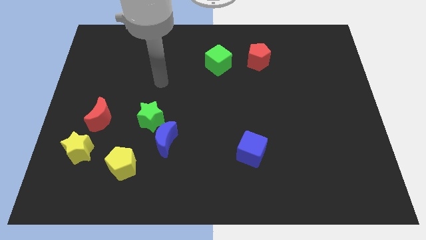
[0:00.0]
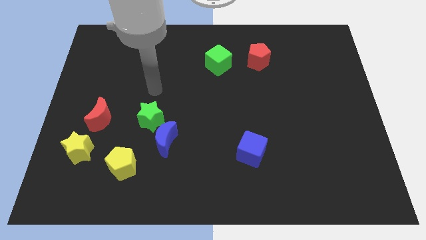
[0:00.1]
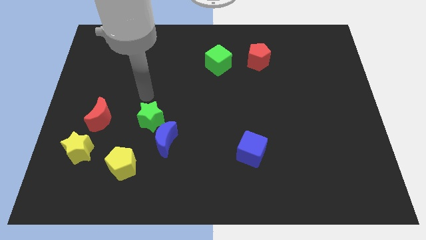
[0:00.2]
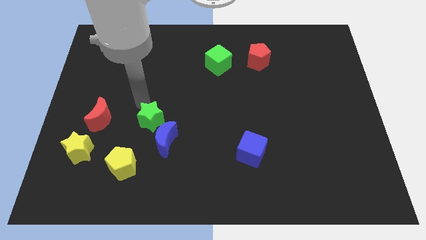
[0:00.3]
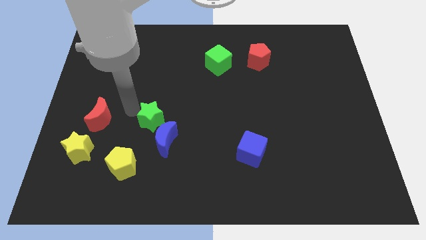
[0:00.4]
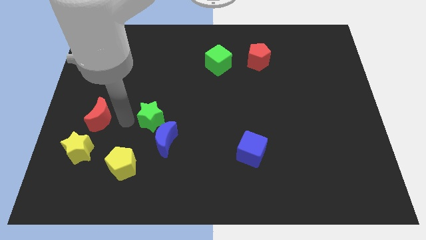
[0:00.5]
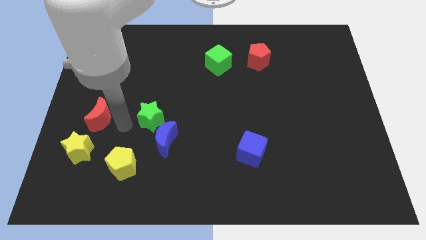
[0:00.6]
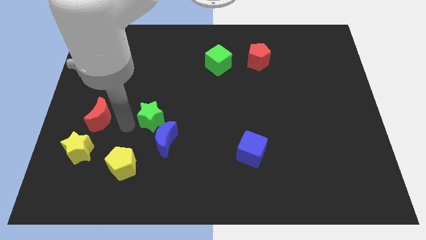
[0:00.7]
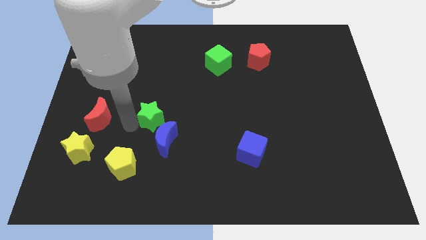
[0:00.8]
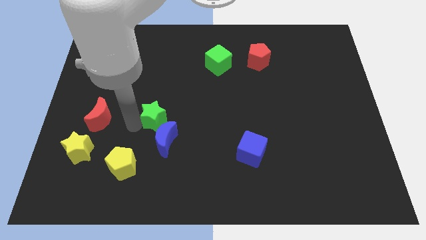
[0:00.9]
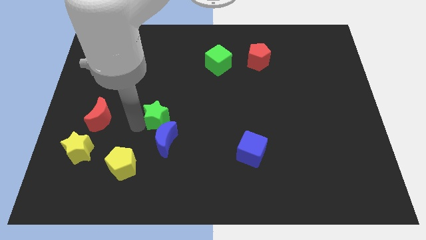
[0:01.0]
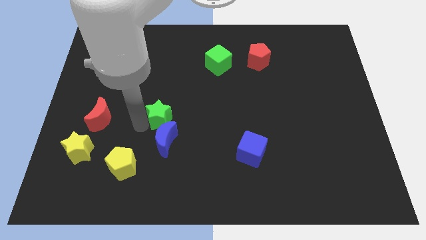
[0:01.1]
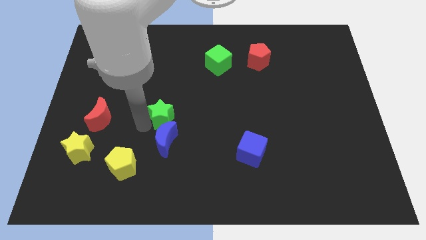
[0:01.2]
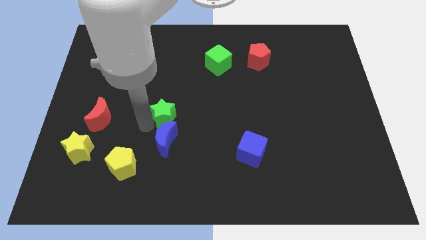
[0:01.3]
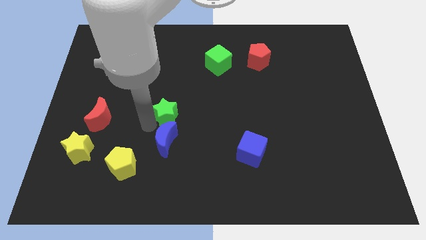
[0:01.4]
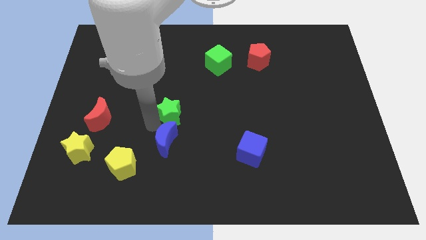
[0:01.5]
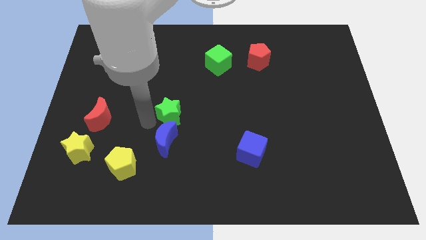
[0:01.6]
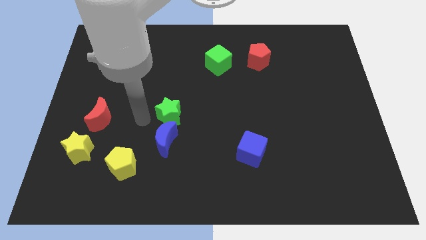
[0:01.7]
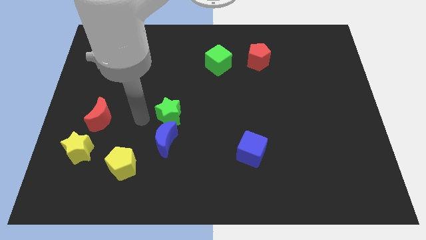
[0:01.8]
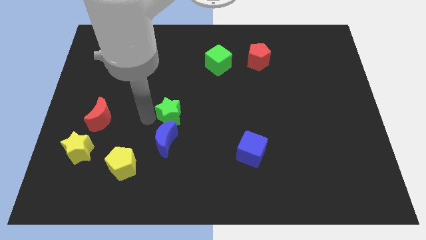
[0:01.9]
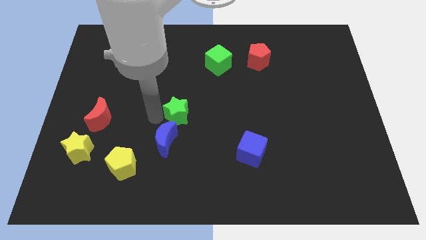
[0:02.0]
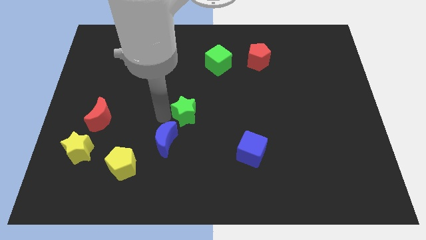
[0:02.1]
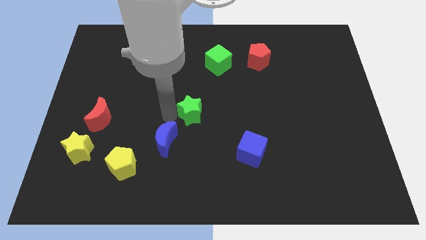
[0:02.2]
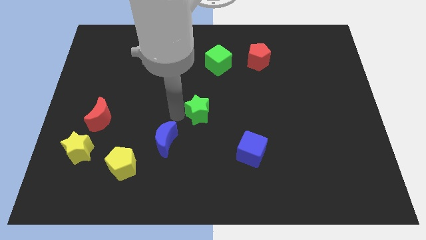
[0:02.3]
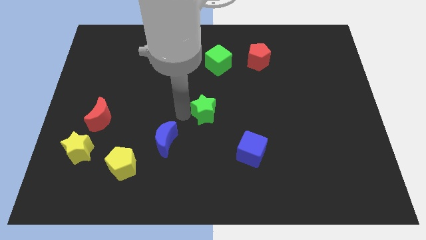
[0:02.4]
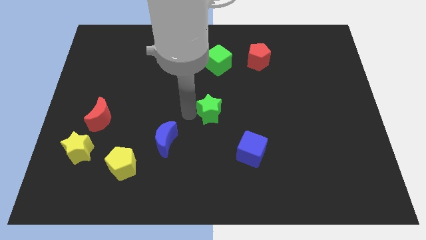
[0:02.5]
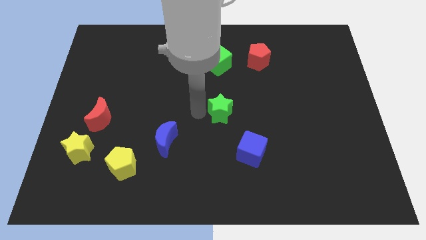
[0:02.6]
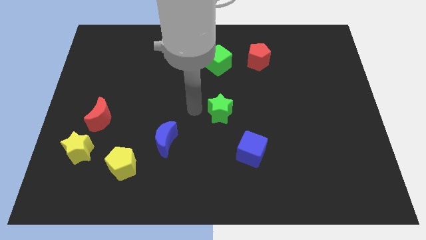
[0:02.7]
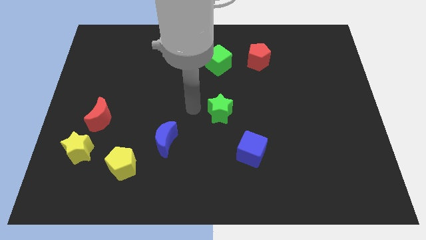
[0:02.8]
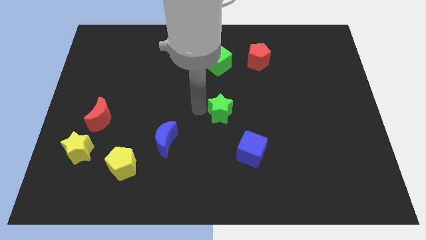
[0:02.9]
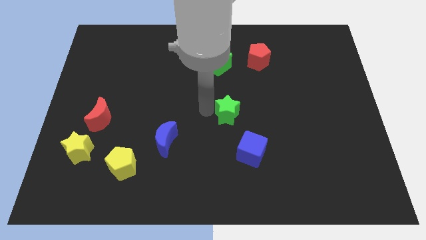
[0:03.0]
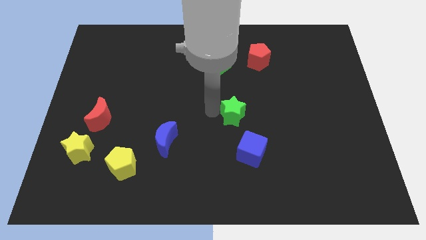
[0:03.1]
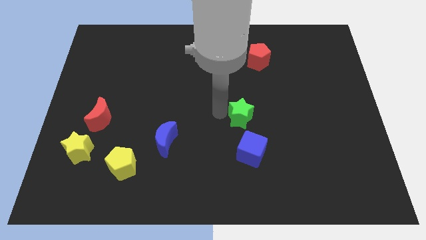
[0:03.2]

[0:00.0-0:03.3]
push the green star to the right

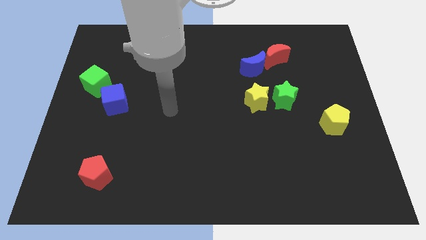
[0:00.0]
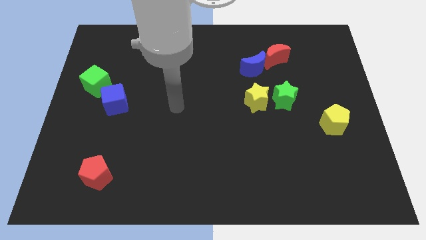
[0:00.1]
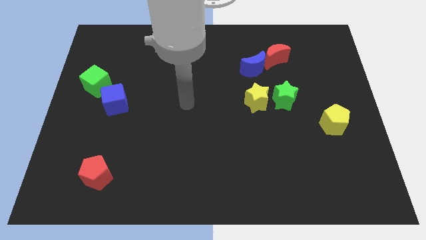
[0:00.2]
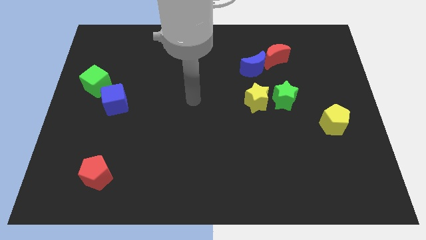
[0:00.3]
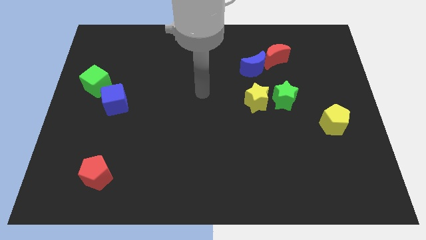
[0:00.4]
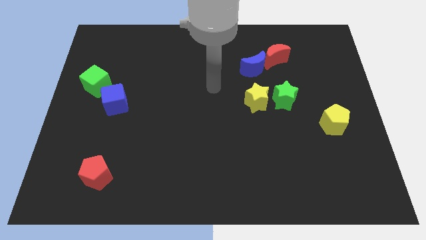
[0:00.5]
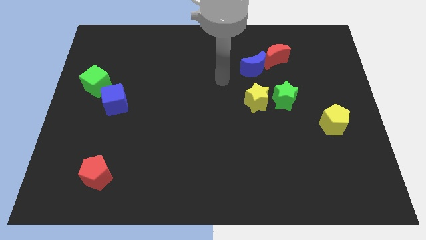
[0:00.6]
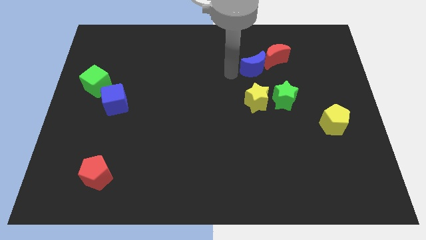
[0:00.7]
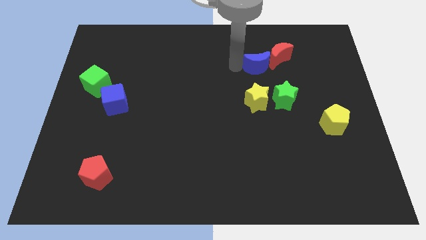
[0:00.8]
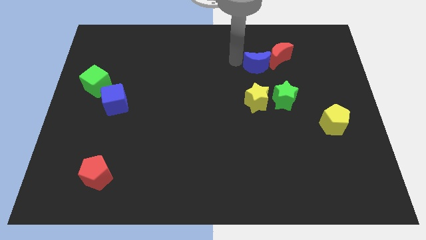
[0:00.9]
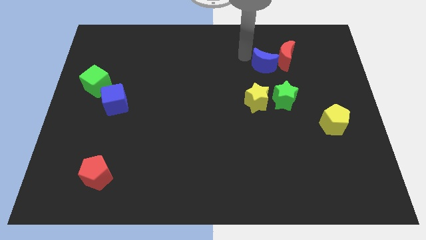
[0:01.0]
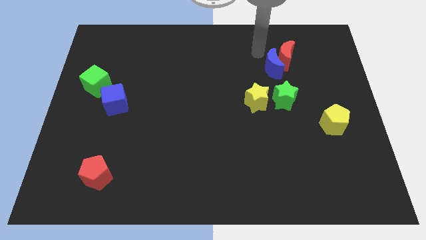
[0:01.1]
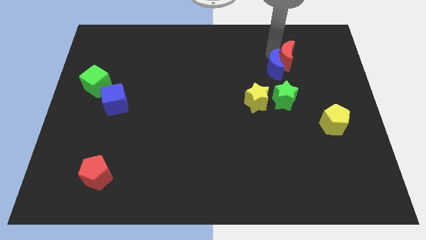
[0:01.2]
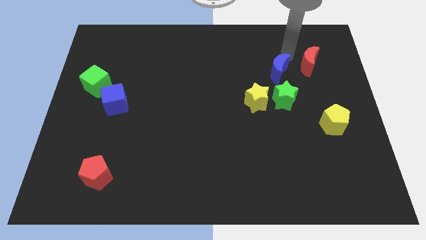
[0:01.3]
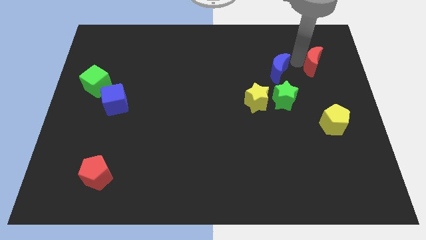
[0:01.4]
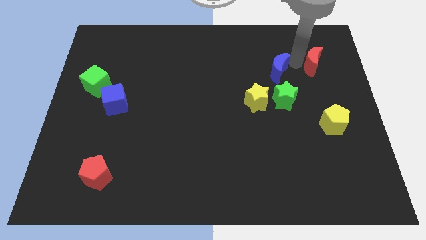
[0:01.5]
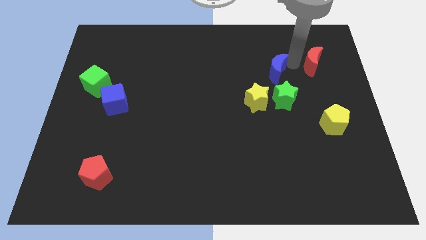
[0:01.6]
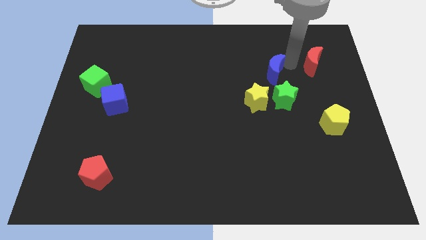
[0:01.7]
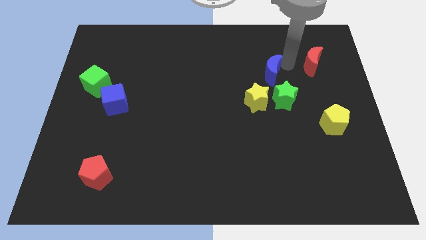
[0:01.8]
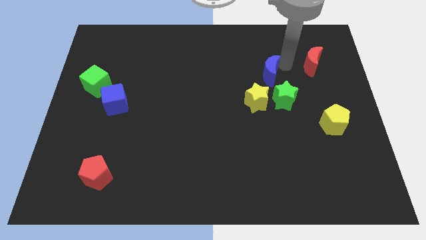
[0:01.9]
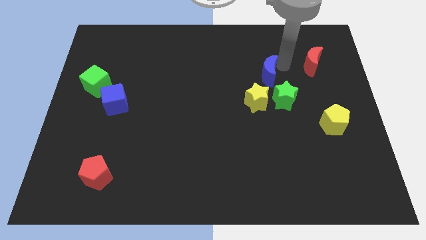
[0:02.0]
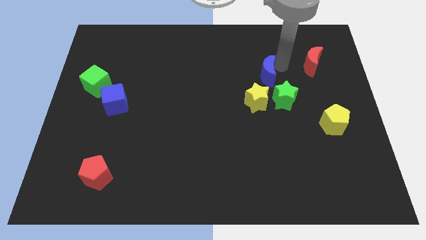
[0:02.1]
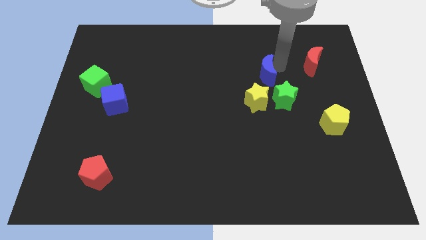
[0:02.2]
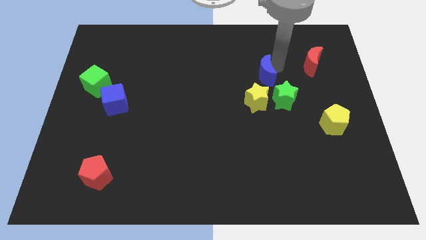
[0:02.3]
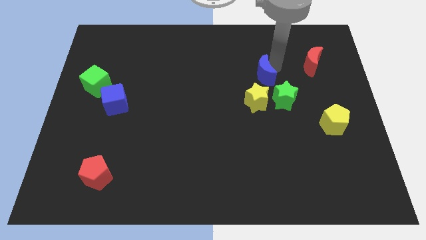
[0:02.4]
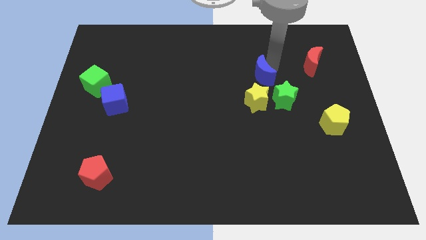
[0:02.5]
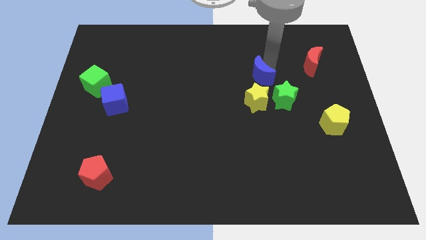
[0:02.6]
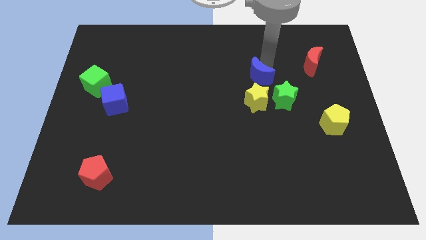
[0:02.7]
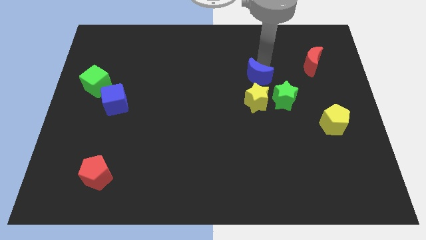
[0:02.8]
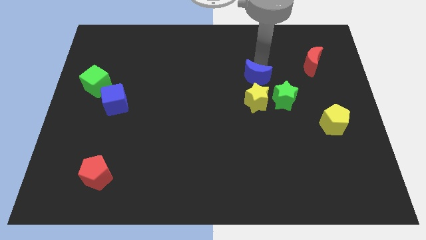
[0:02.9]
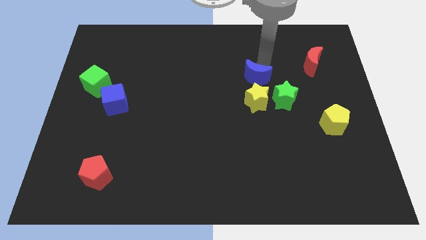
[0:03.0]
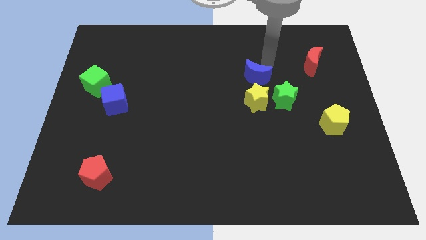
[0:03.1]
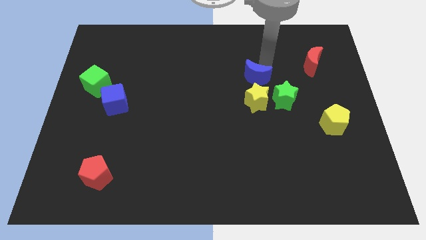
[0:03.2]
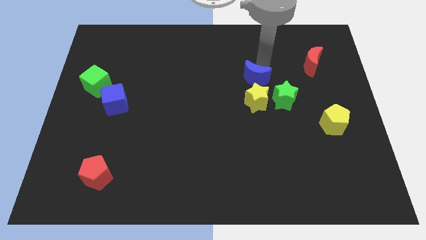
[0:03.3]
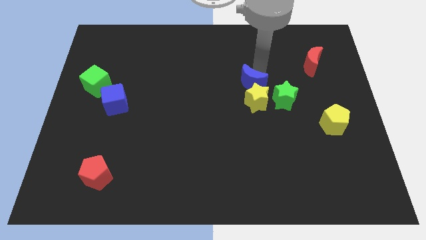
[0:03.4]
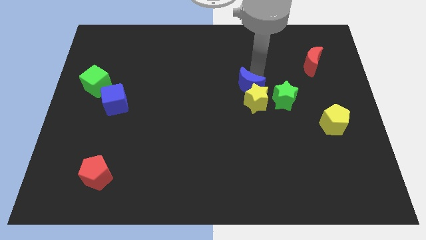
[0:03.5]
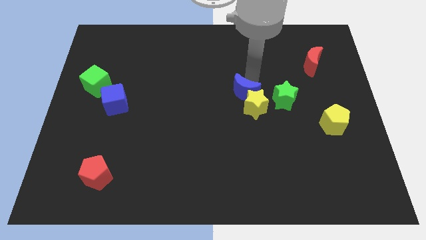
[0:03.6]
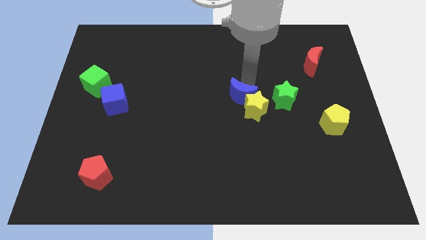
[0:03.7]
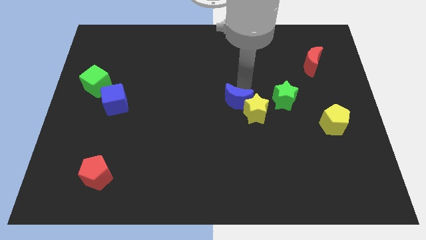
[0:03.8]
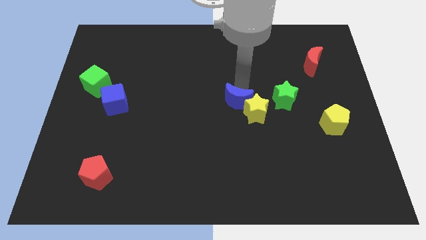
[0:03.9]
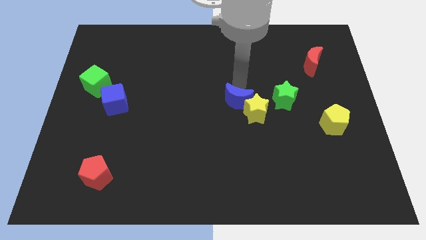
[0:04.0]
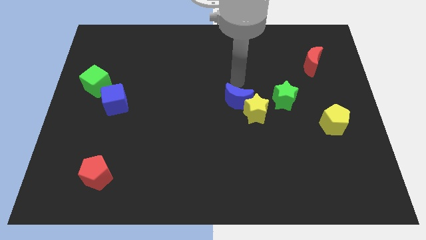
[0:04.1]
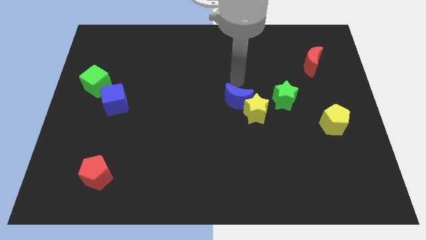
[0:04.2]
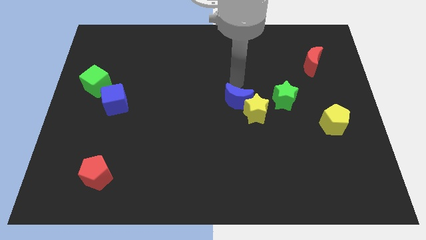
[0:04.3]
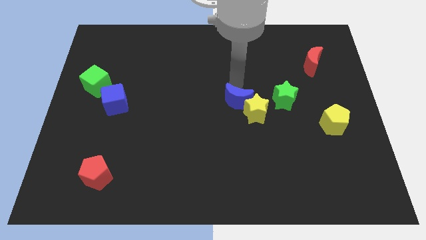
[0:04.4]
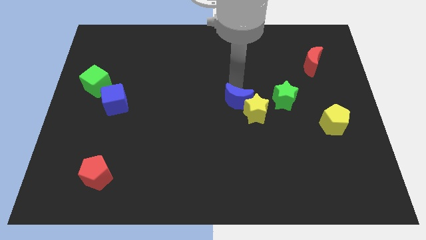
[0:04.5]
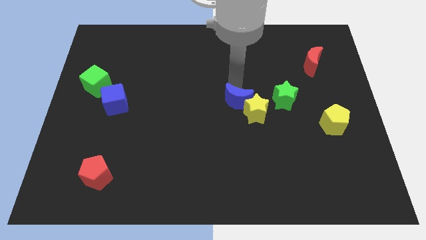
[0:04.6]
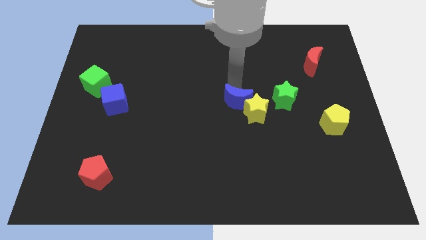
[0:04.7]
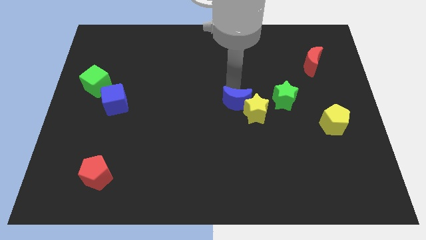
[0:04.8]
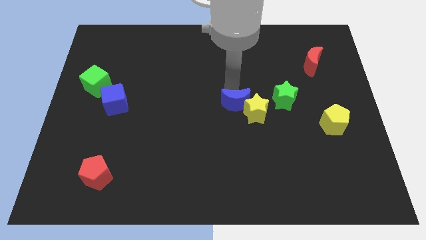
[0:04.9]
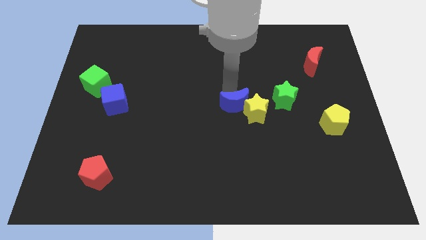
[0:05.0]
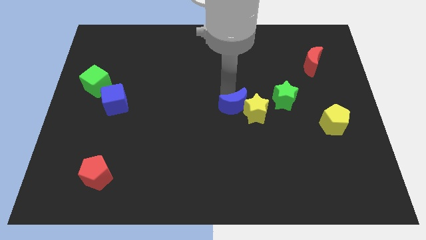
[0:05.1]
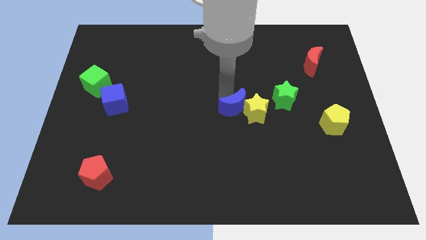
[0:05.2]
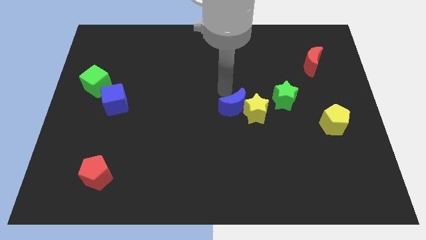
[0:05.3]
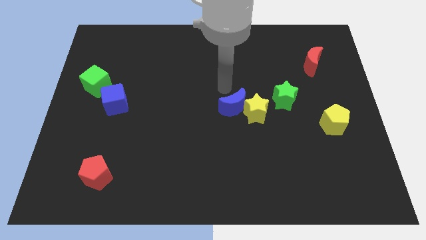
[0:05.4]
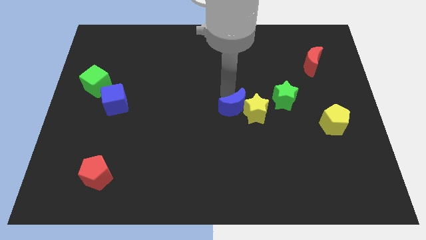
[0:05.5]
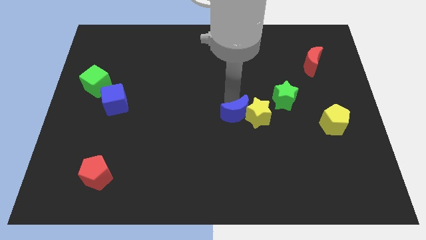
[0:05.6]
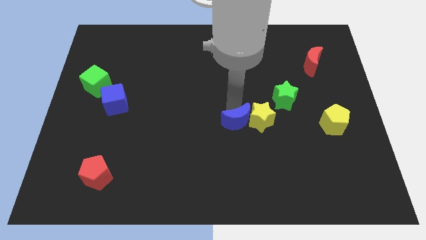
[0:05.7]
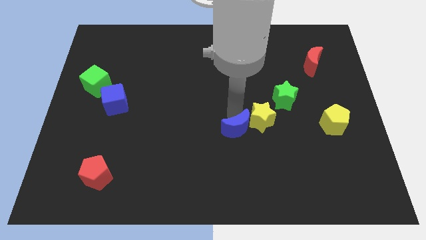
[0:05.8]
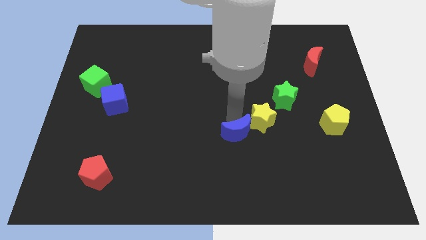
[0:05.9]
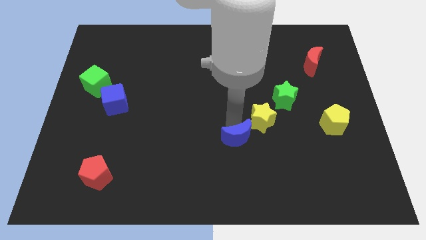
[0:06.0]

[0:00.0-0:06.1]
slide the blue moon down
